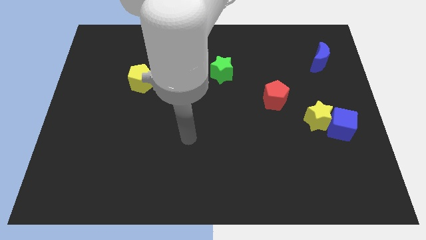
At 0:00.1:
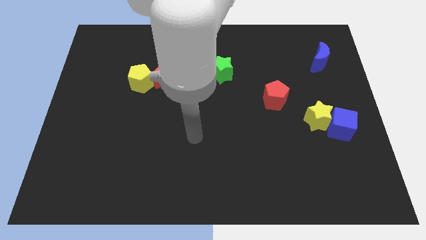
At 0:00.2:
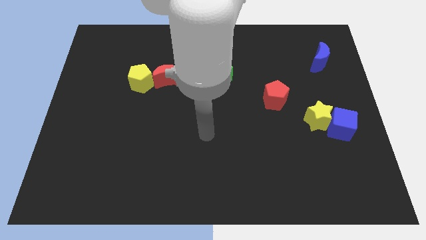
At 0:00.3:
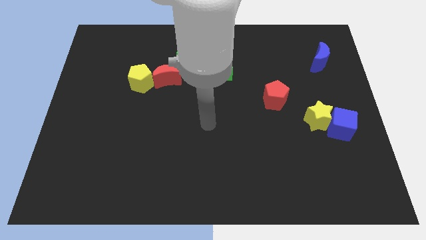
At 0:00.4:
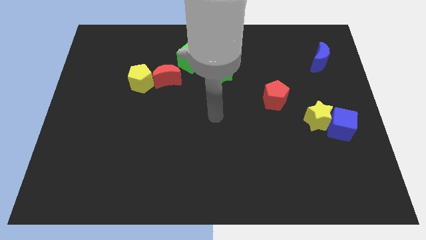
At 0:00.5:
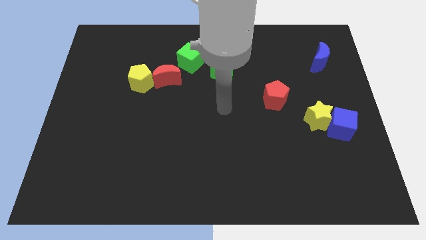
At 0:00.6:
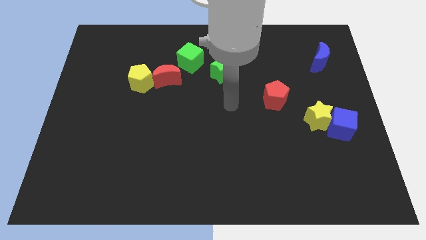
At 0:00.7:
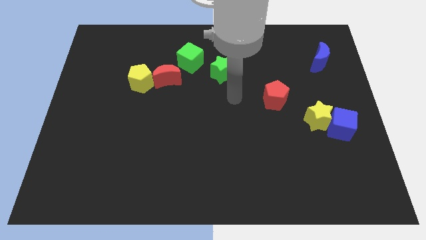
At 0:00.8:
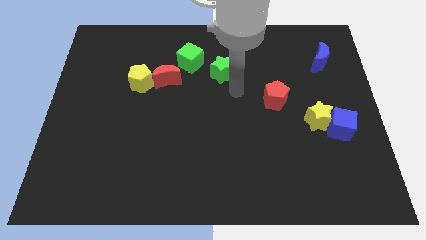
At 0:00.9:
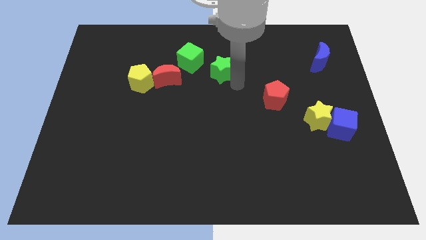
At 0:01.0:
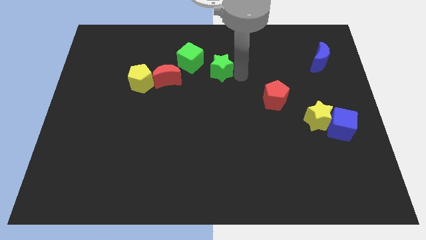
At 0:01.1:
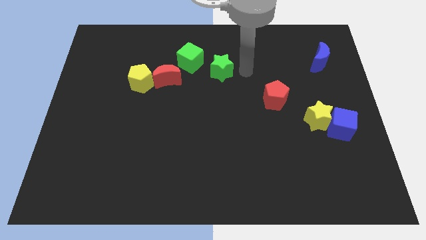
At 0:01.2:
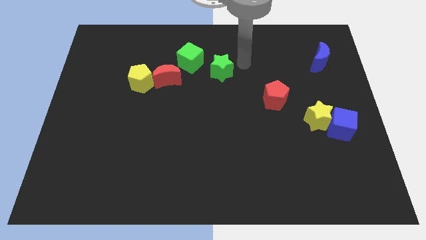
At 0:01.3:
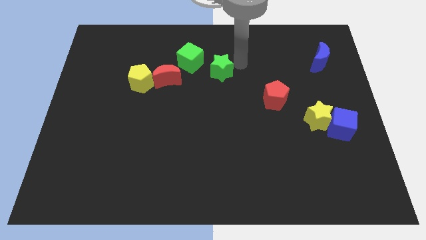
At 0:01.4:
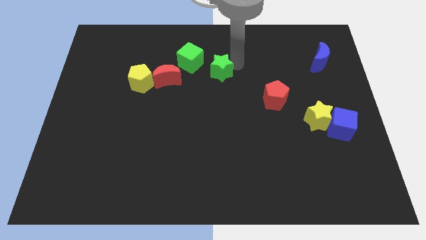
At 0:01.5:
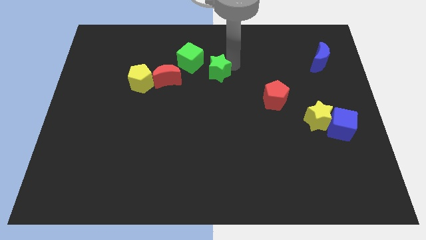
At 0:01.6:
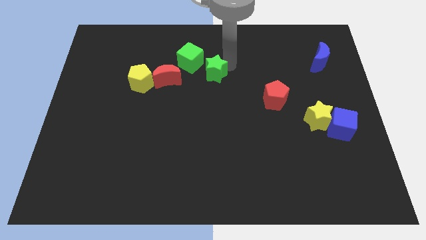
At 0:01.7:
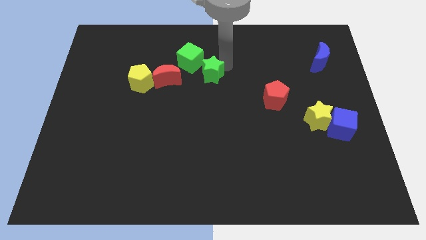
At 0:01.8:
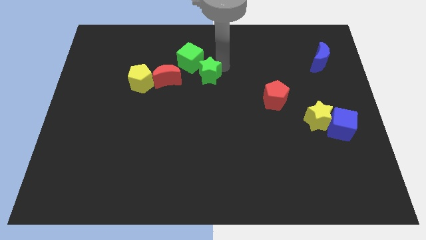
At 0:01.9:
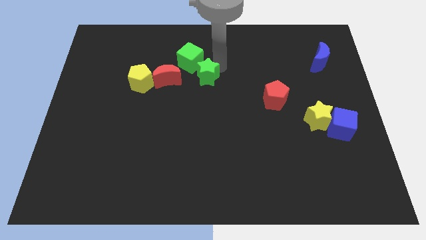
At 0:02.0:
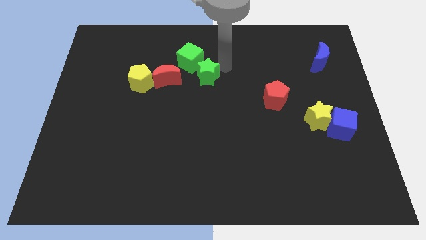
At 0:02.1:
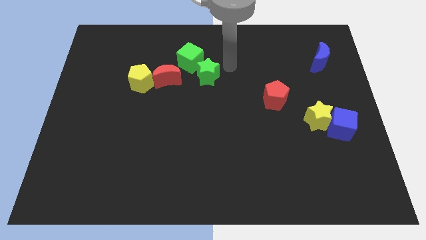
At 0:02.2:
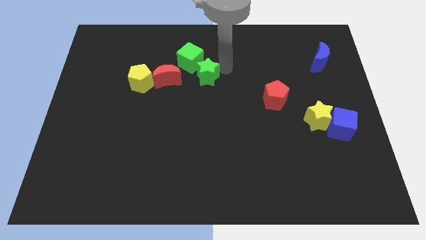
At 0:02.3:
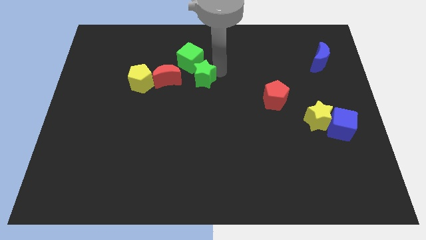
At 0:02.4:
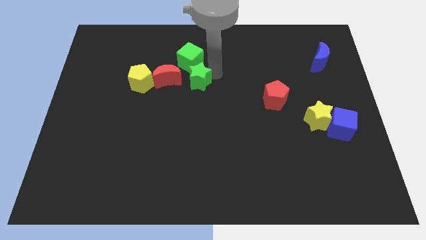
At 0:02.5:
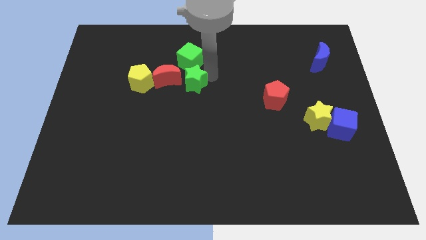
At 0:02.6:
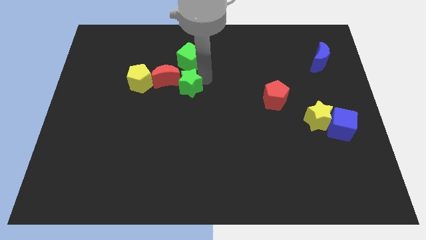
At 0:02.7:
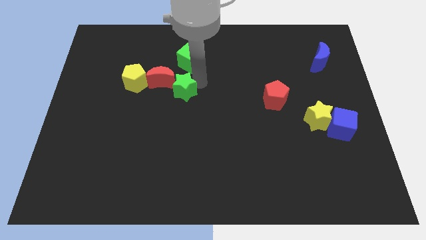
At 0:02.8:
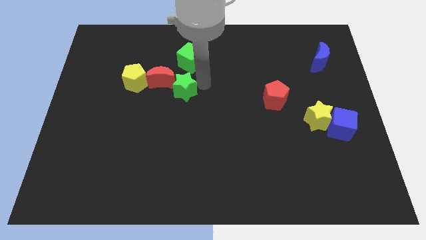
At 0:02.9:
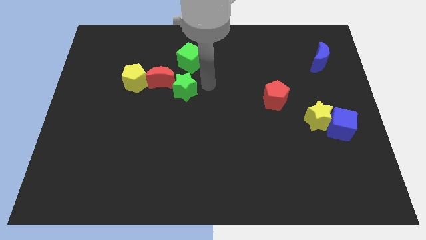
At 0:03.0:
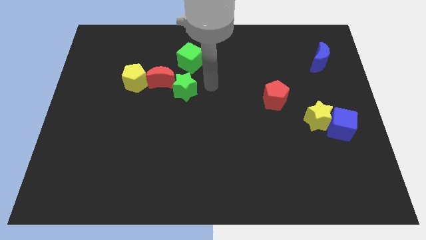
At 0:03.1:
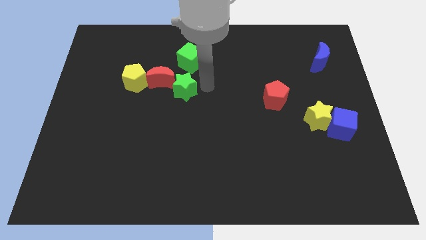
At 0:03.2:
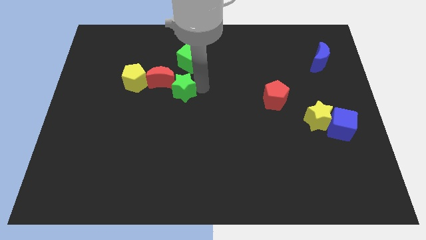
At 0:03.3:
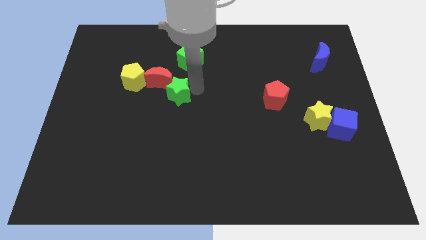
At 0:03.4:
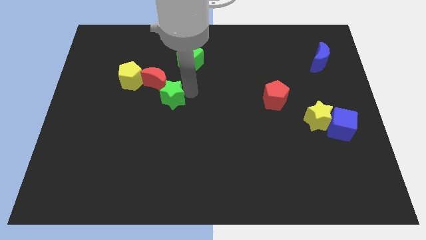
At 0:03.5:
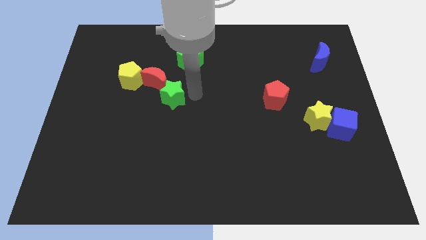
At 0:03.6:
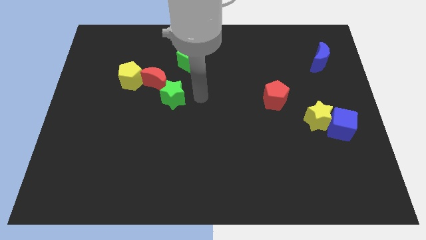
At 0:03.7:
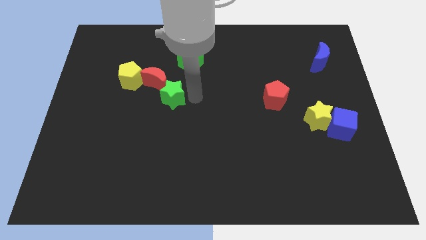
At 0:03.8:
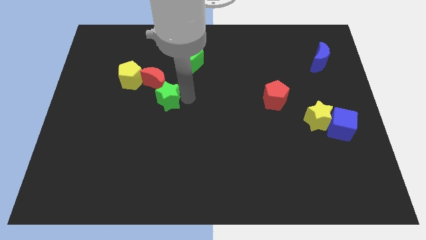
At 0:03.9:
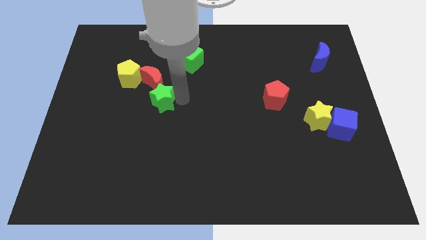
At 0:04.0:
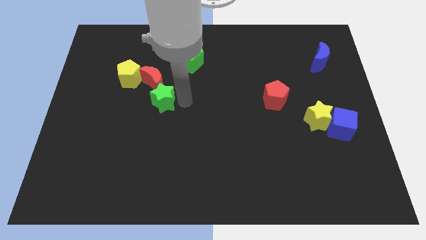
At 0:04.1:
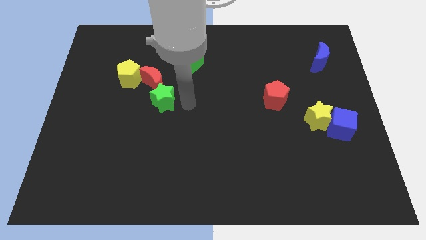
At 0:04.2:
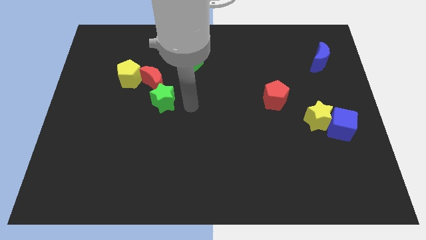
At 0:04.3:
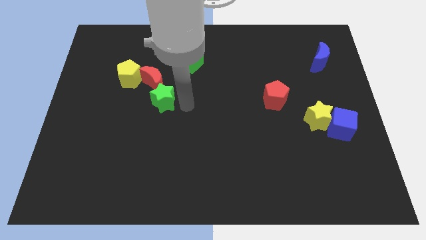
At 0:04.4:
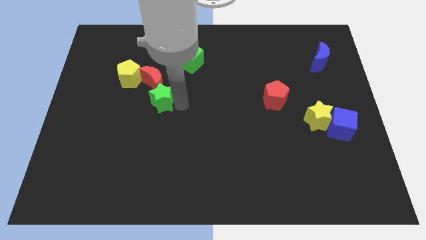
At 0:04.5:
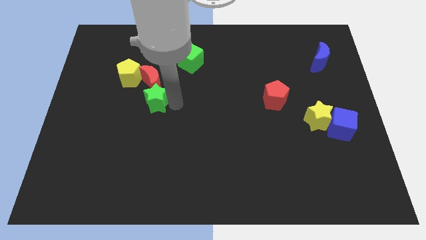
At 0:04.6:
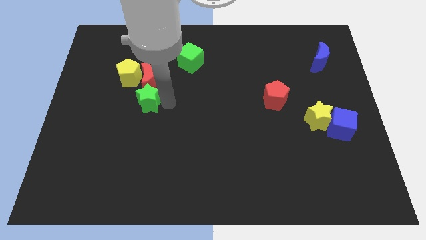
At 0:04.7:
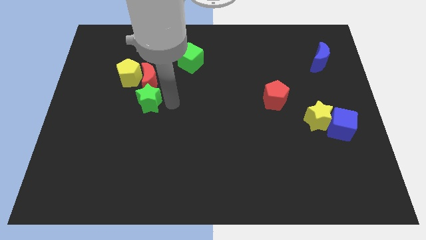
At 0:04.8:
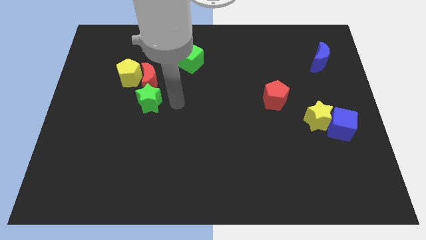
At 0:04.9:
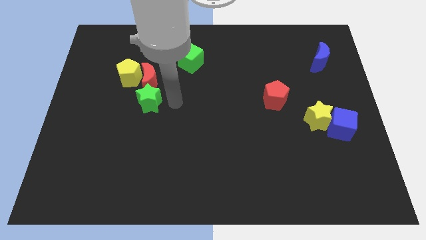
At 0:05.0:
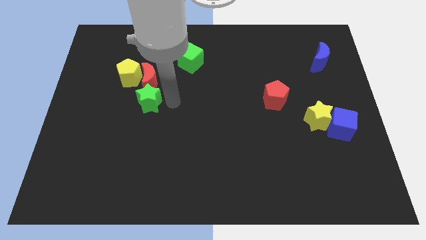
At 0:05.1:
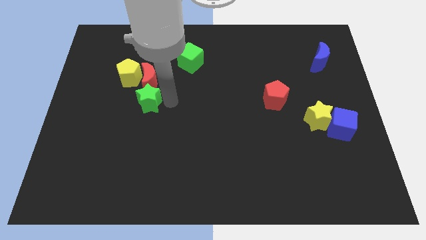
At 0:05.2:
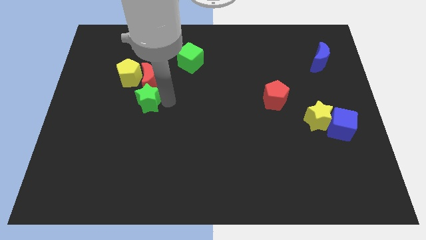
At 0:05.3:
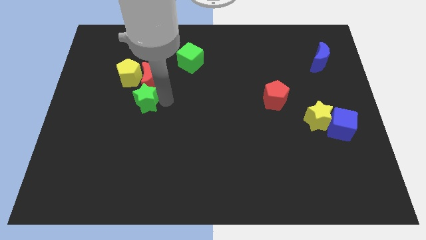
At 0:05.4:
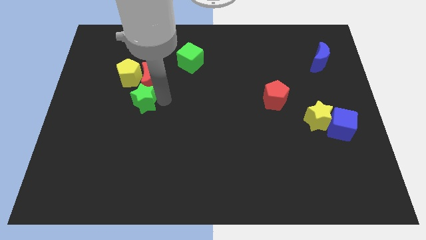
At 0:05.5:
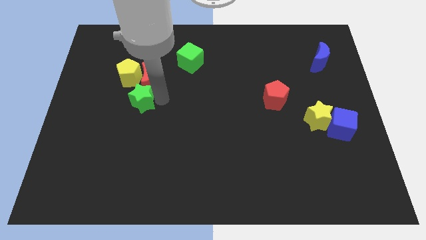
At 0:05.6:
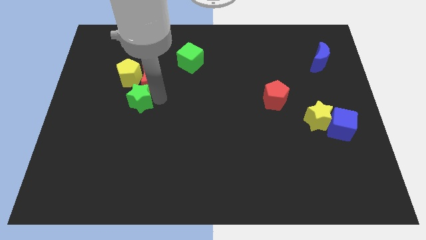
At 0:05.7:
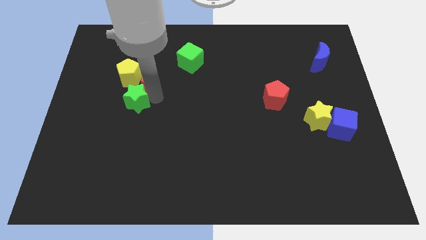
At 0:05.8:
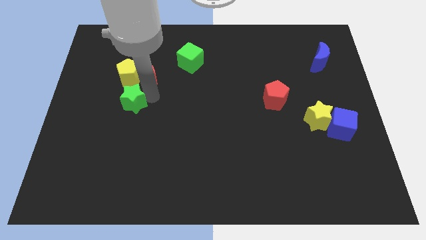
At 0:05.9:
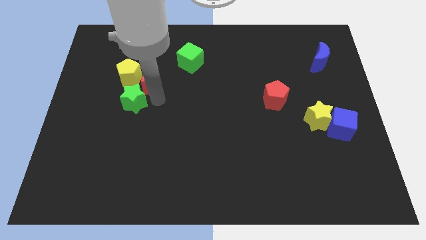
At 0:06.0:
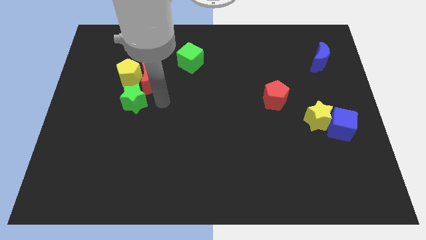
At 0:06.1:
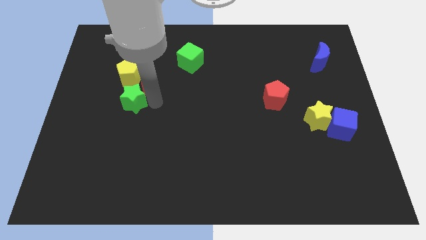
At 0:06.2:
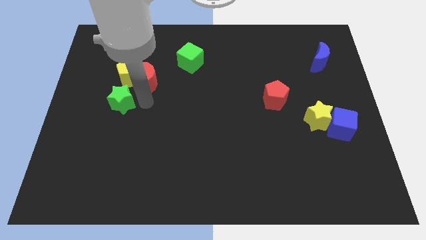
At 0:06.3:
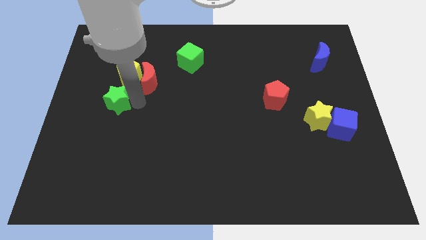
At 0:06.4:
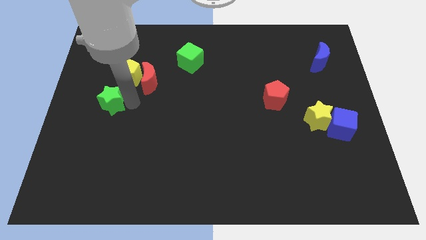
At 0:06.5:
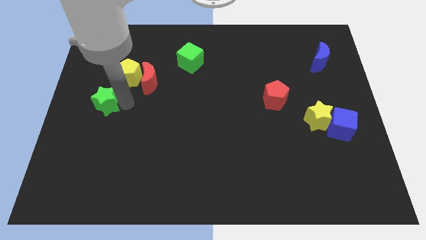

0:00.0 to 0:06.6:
slide the green star to the left side

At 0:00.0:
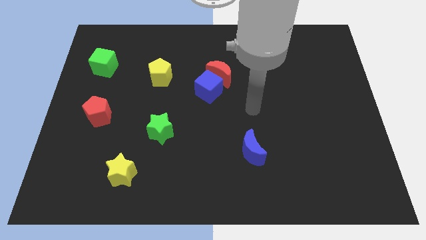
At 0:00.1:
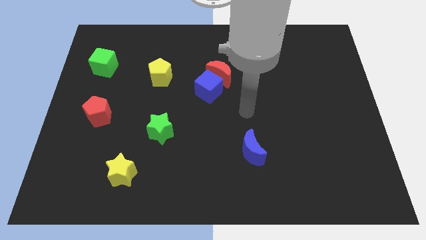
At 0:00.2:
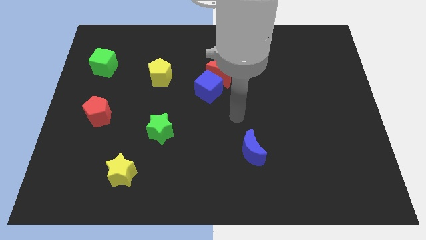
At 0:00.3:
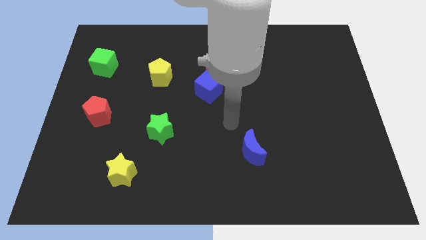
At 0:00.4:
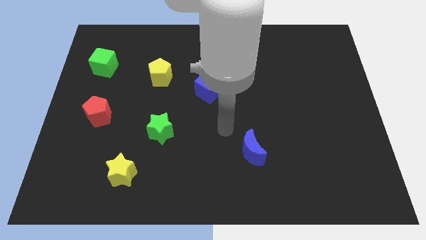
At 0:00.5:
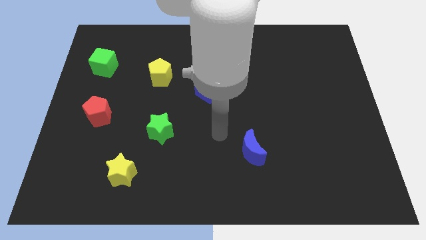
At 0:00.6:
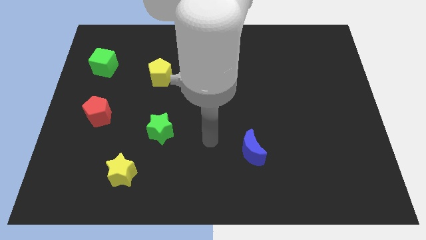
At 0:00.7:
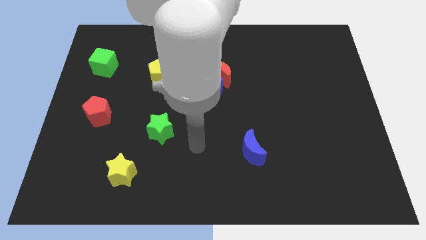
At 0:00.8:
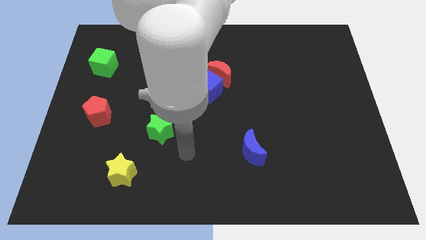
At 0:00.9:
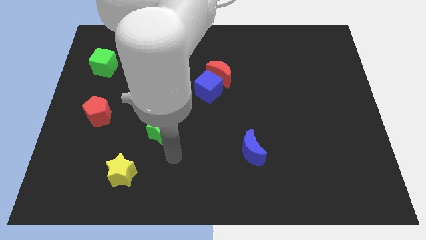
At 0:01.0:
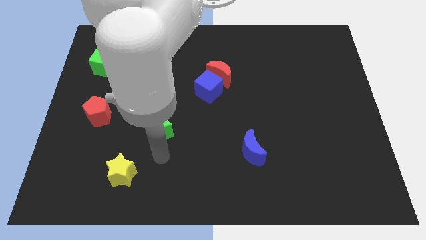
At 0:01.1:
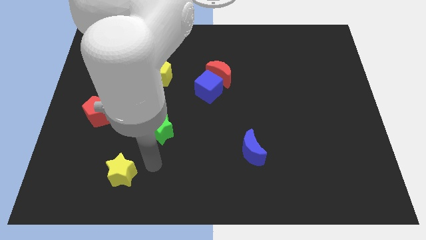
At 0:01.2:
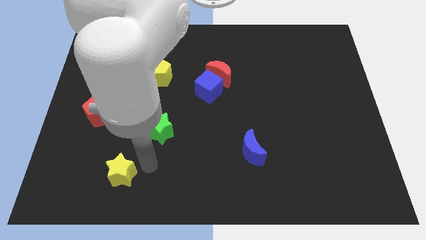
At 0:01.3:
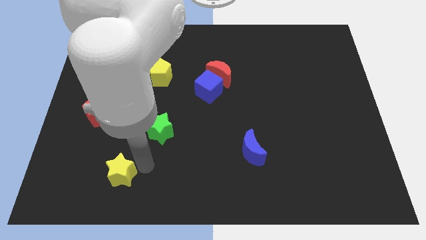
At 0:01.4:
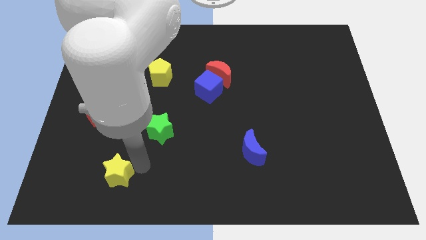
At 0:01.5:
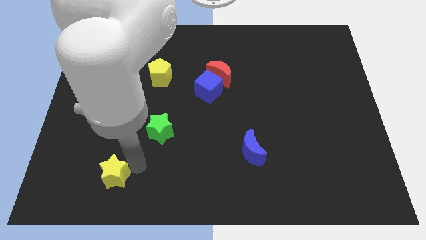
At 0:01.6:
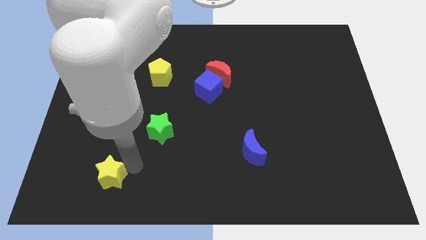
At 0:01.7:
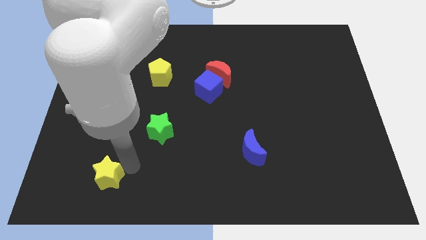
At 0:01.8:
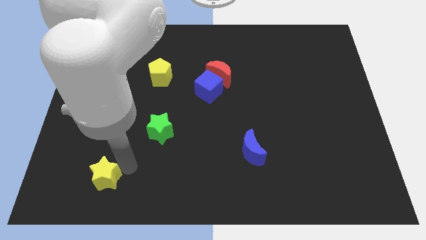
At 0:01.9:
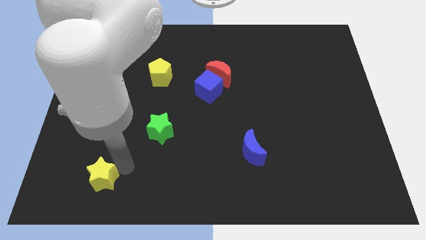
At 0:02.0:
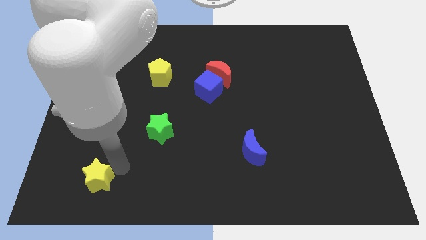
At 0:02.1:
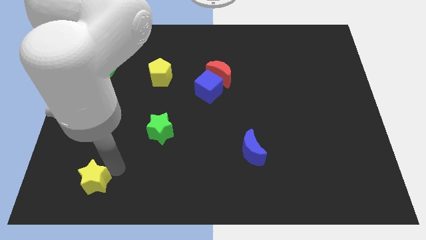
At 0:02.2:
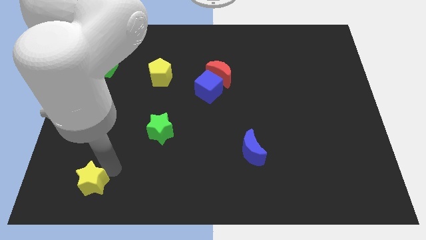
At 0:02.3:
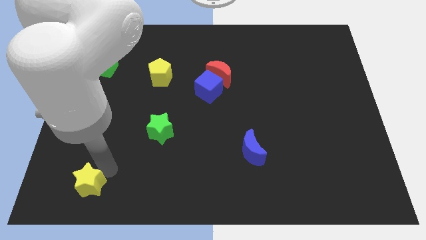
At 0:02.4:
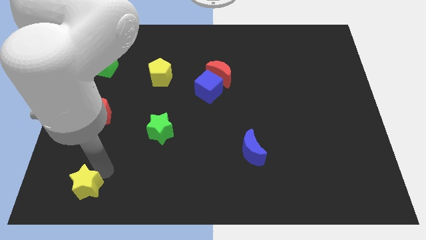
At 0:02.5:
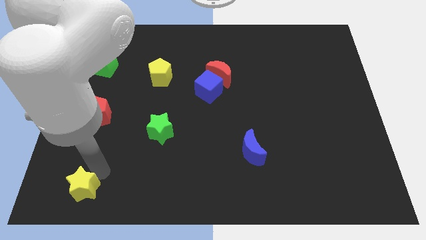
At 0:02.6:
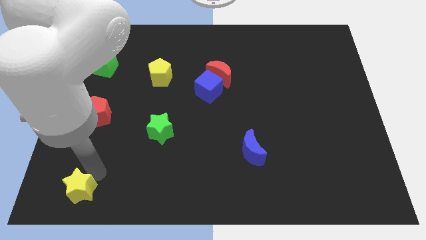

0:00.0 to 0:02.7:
put the yellow star to the bottom left of the board
